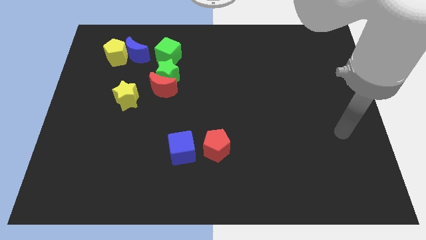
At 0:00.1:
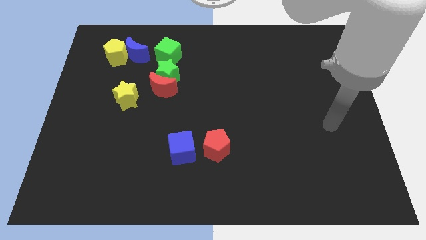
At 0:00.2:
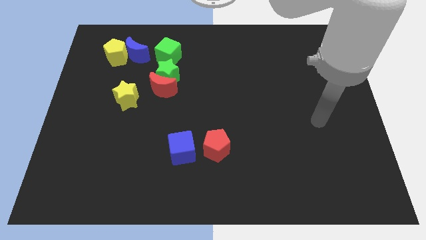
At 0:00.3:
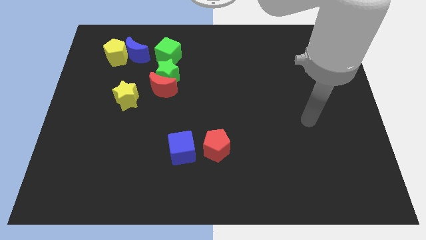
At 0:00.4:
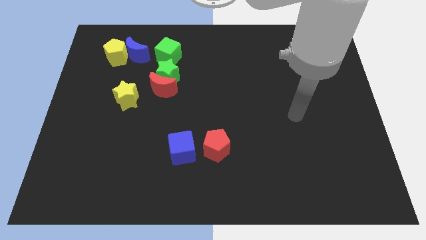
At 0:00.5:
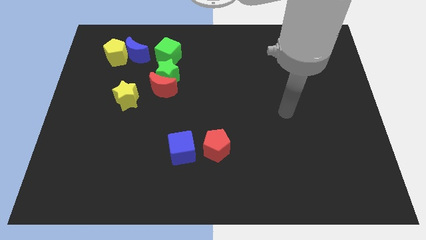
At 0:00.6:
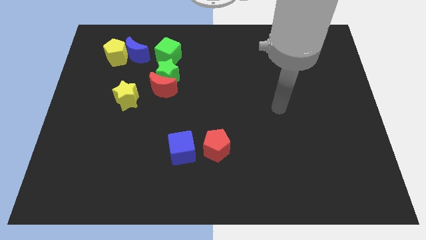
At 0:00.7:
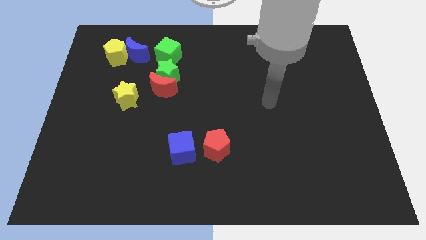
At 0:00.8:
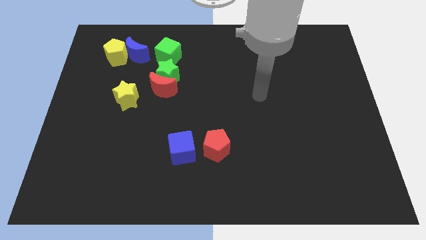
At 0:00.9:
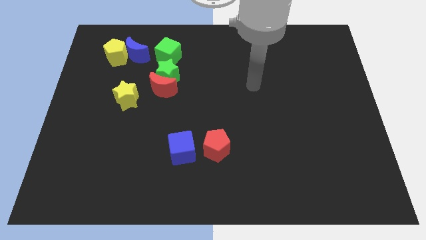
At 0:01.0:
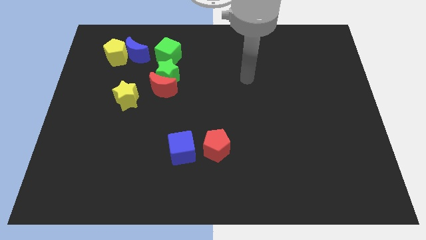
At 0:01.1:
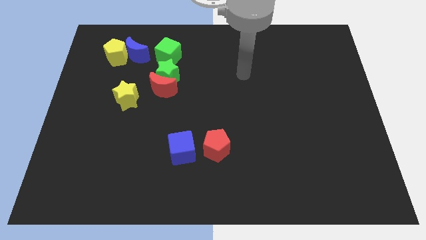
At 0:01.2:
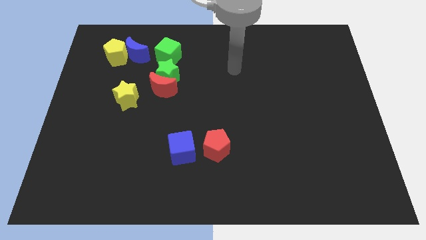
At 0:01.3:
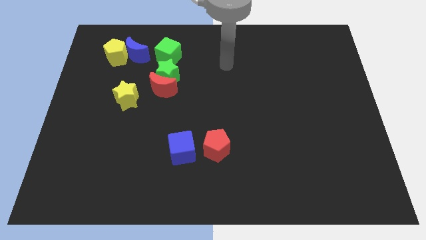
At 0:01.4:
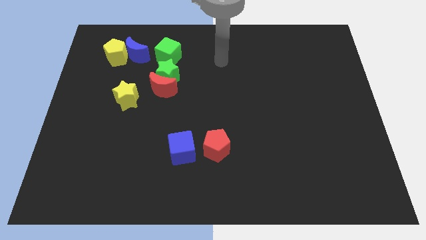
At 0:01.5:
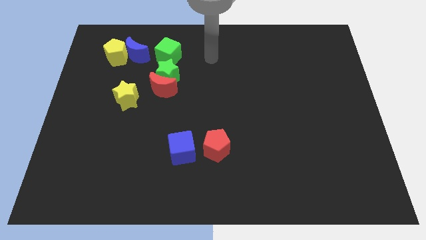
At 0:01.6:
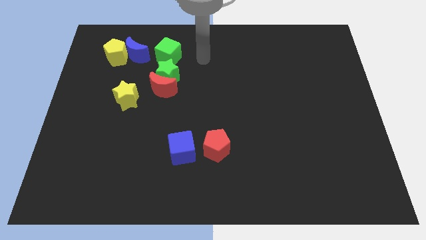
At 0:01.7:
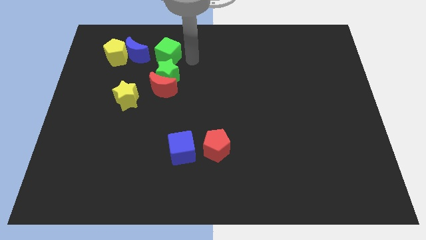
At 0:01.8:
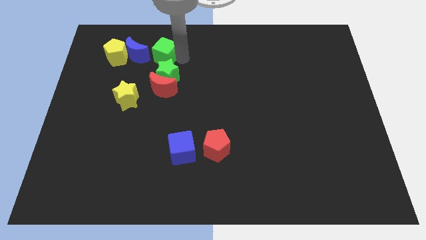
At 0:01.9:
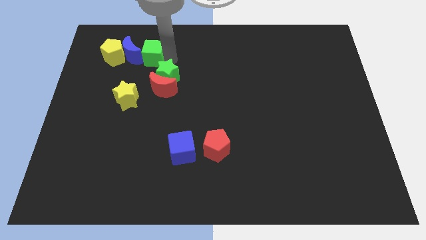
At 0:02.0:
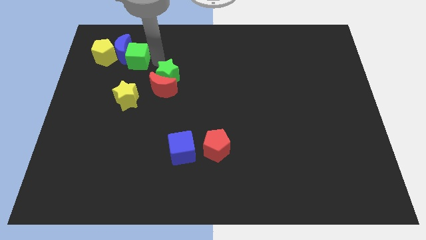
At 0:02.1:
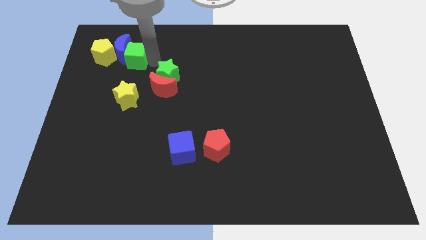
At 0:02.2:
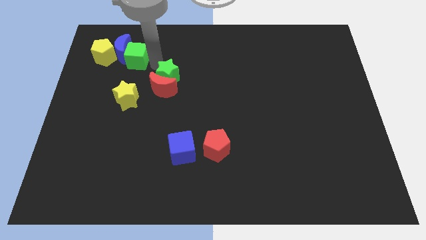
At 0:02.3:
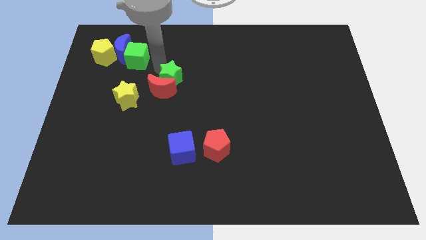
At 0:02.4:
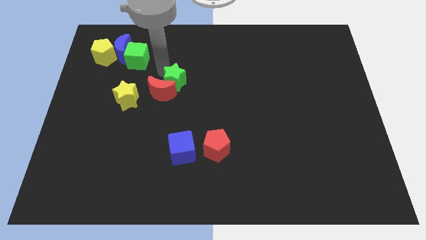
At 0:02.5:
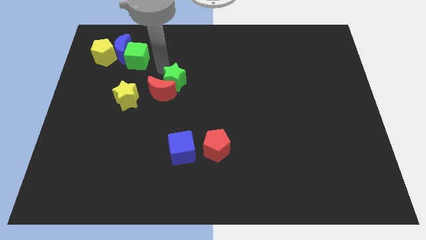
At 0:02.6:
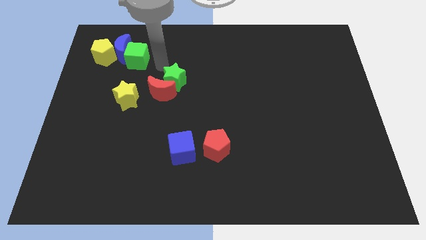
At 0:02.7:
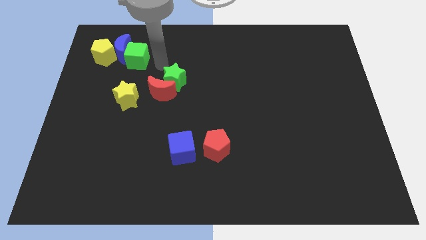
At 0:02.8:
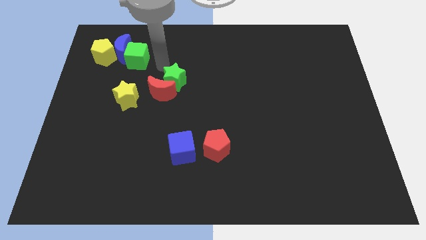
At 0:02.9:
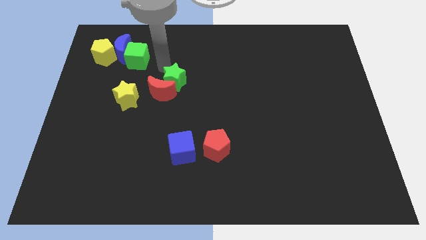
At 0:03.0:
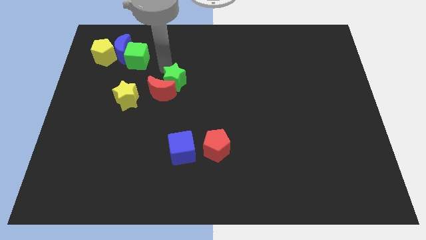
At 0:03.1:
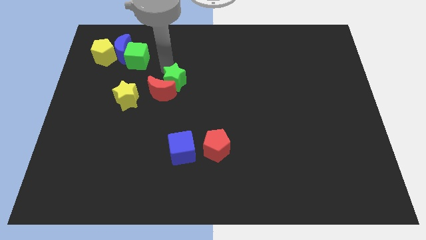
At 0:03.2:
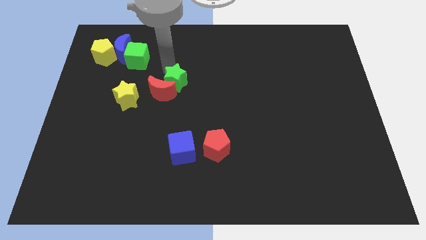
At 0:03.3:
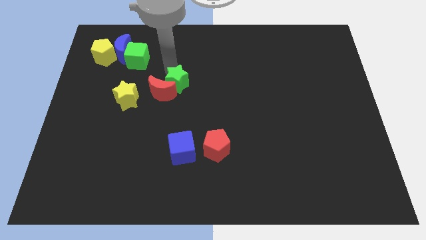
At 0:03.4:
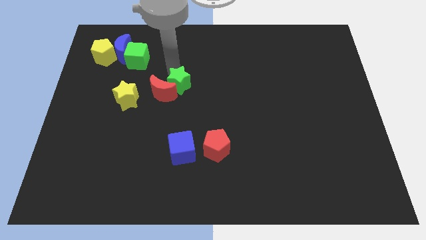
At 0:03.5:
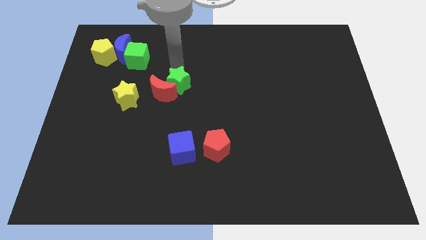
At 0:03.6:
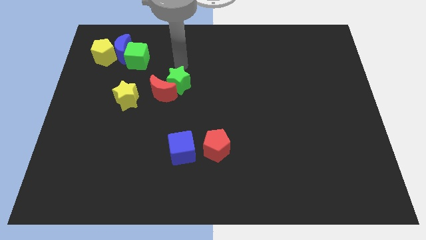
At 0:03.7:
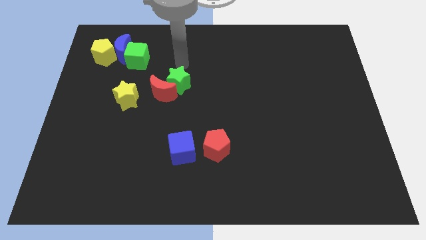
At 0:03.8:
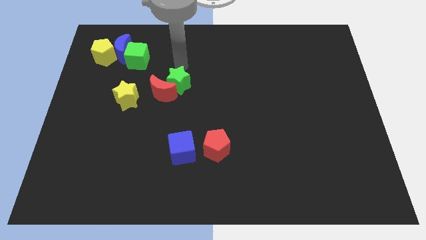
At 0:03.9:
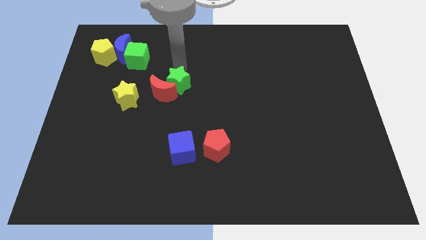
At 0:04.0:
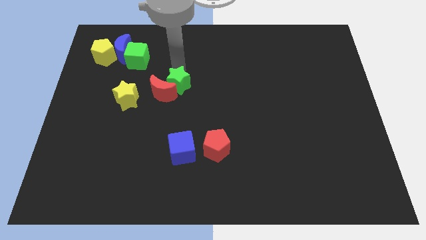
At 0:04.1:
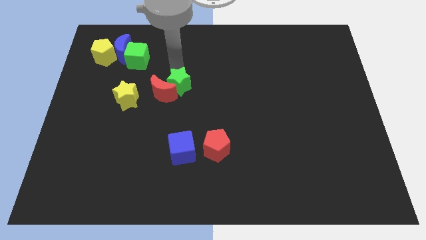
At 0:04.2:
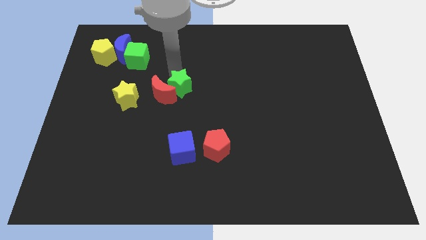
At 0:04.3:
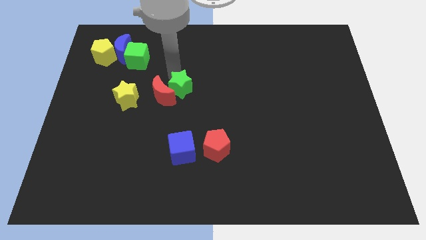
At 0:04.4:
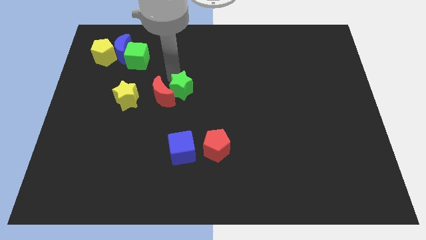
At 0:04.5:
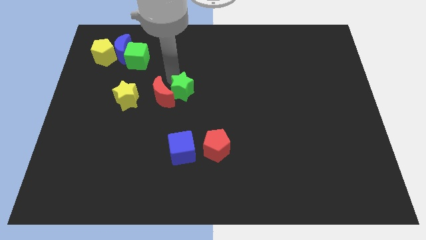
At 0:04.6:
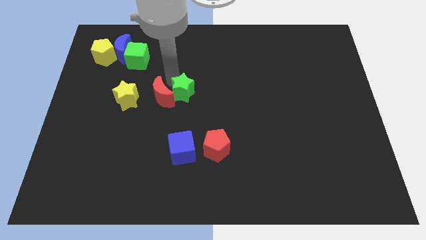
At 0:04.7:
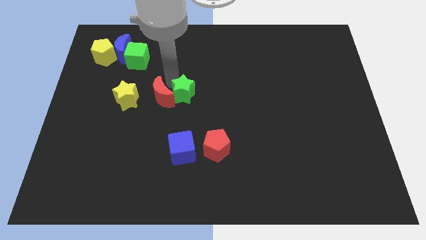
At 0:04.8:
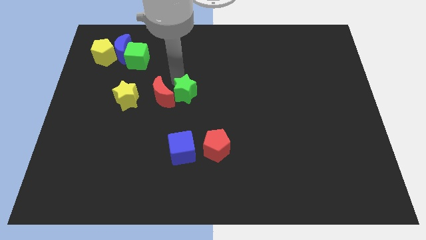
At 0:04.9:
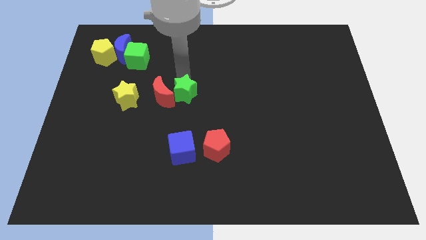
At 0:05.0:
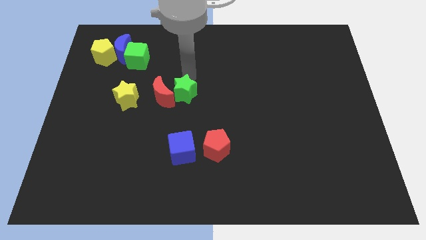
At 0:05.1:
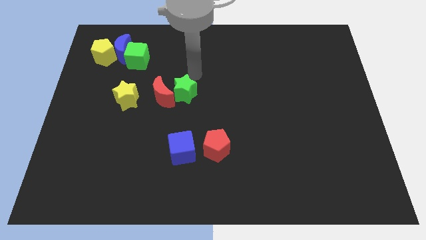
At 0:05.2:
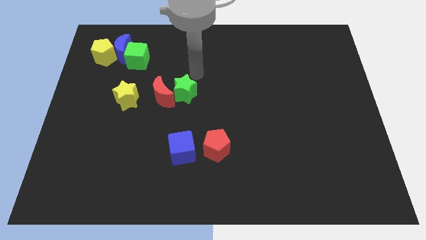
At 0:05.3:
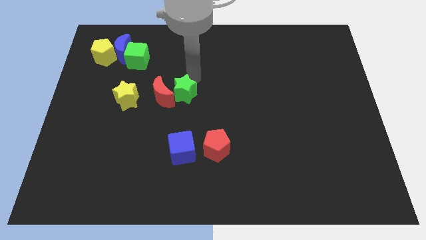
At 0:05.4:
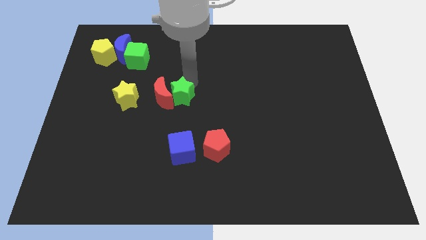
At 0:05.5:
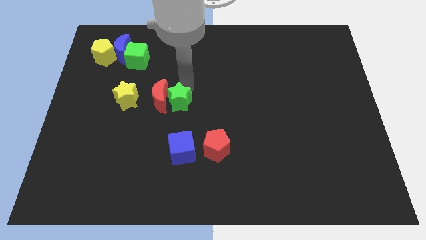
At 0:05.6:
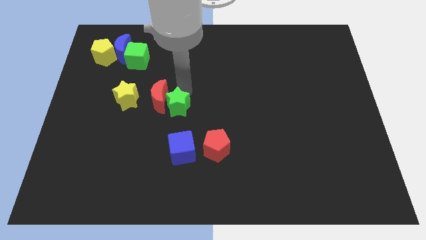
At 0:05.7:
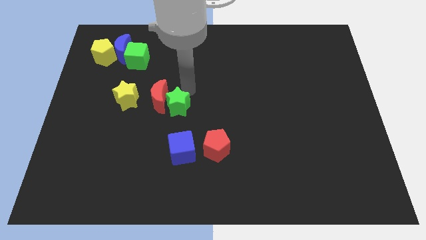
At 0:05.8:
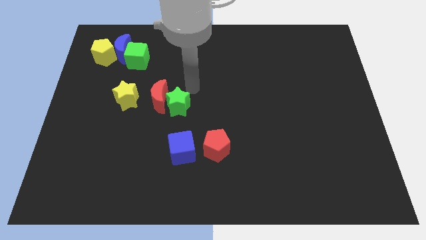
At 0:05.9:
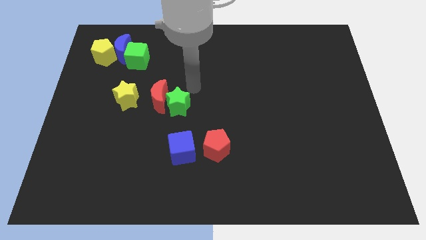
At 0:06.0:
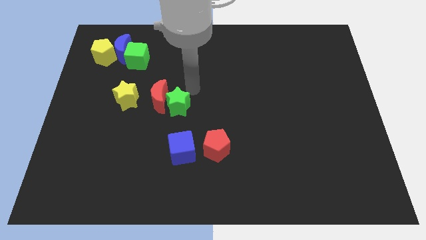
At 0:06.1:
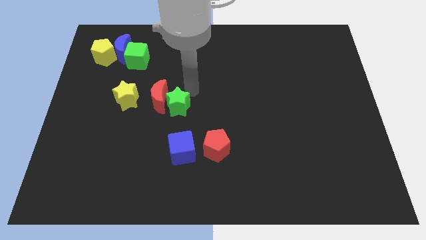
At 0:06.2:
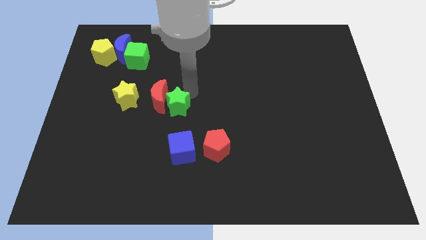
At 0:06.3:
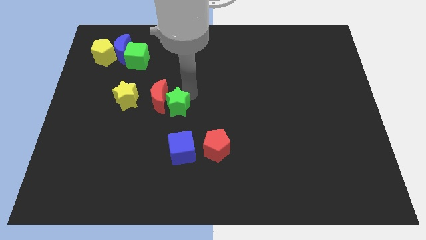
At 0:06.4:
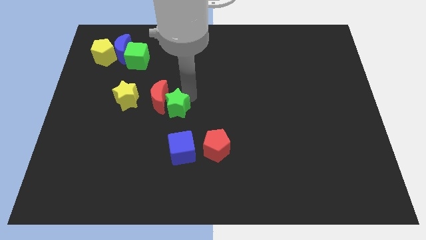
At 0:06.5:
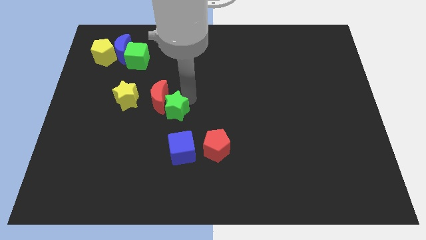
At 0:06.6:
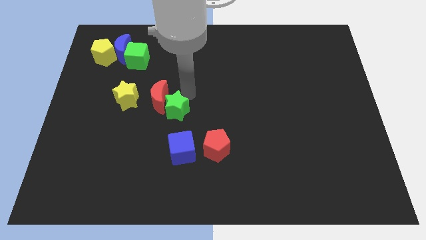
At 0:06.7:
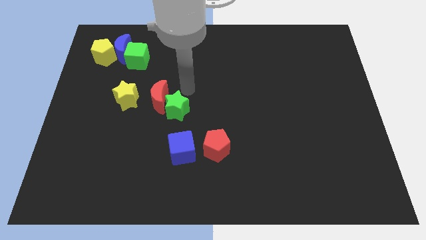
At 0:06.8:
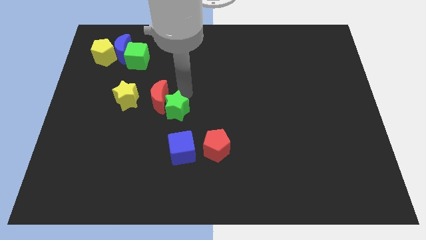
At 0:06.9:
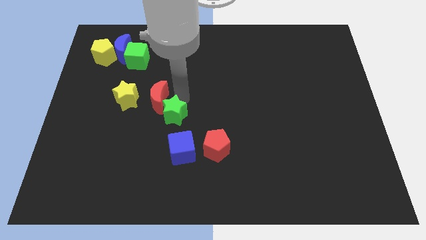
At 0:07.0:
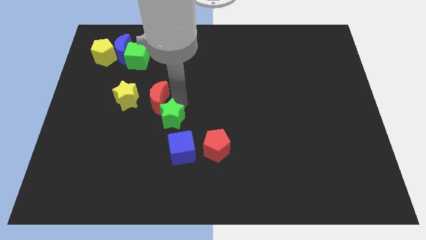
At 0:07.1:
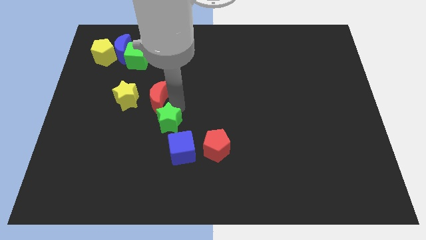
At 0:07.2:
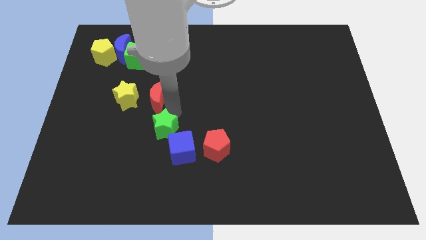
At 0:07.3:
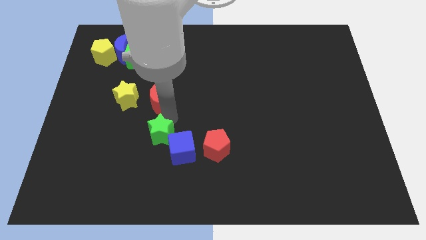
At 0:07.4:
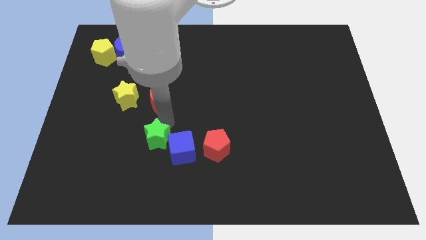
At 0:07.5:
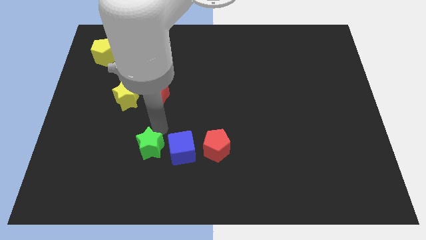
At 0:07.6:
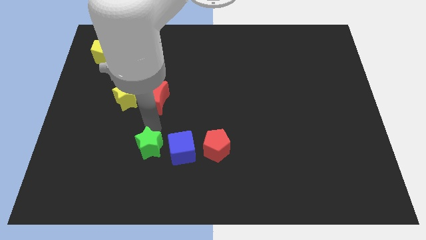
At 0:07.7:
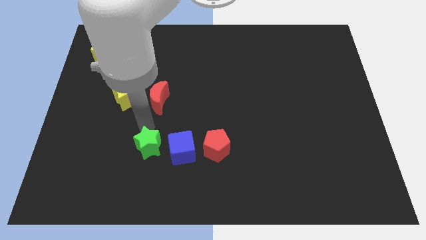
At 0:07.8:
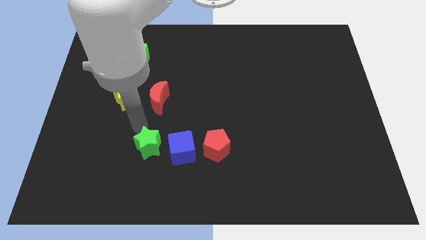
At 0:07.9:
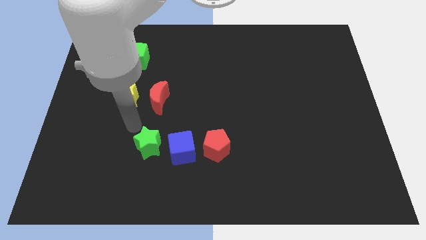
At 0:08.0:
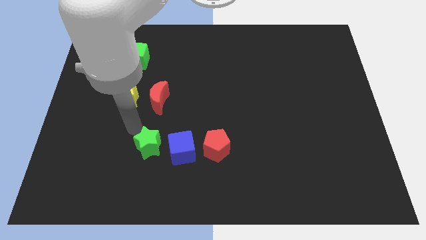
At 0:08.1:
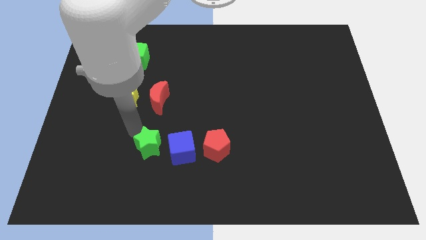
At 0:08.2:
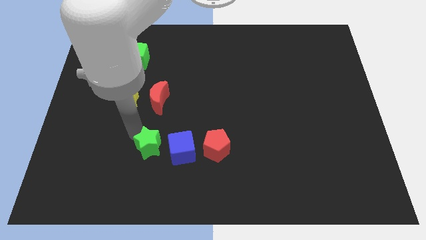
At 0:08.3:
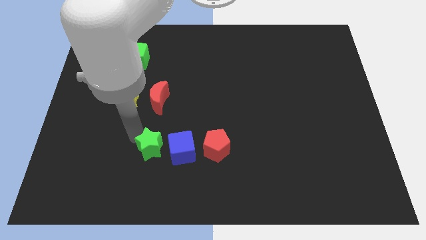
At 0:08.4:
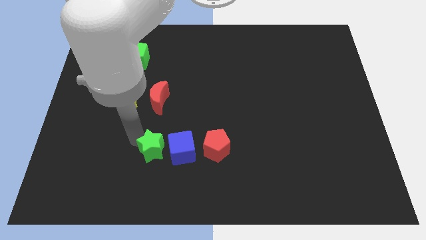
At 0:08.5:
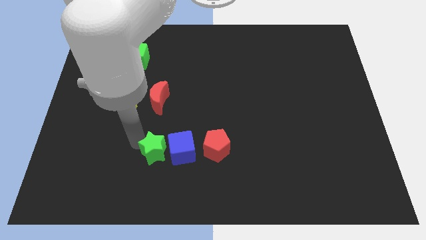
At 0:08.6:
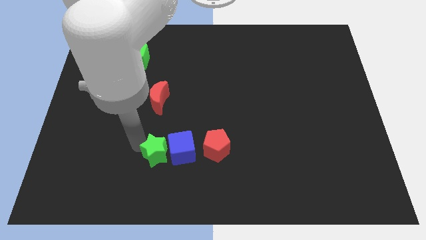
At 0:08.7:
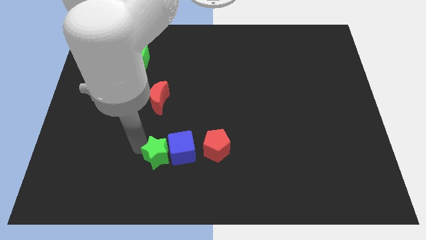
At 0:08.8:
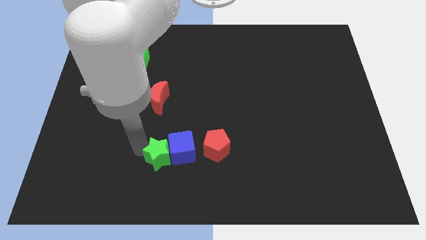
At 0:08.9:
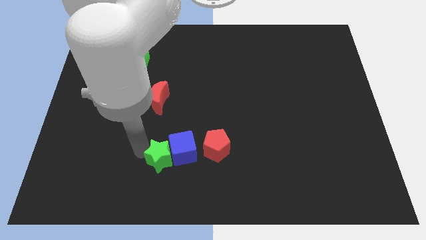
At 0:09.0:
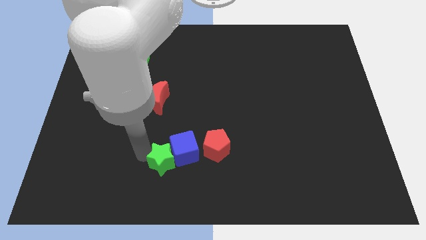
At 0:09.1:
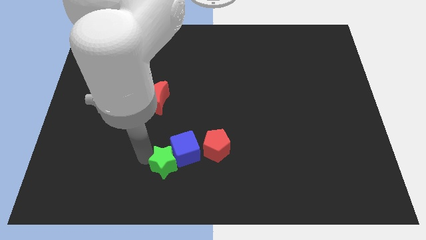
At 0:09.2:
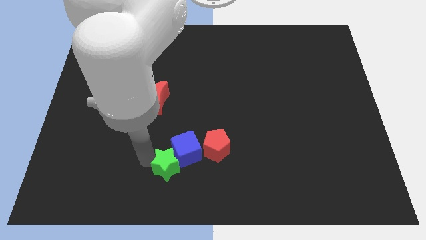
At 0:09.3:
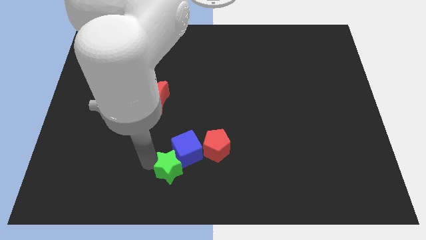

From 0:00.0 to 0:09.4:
slide the green star to the bottom side
